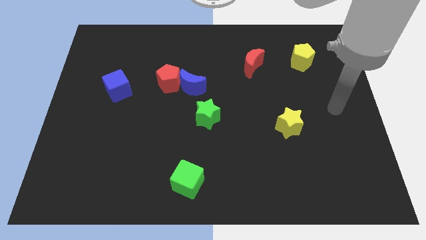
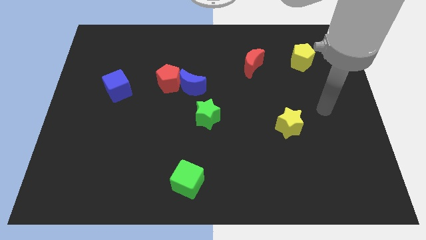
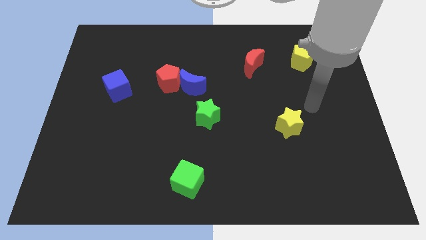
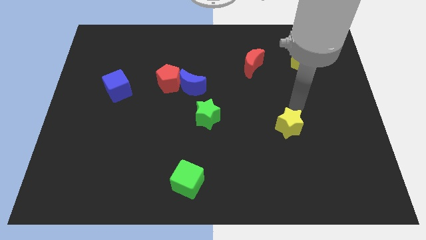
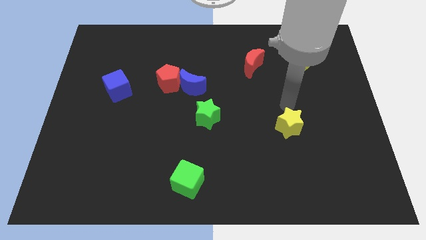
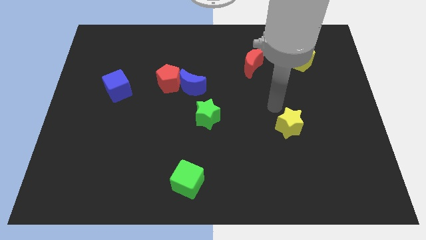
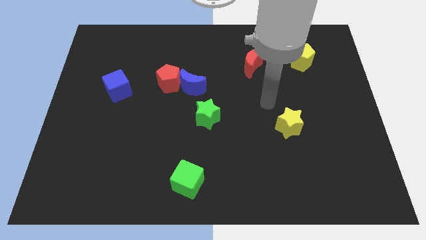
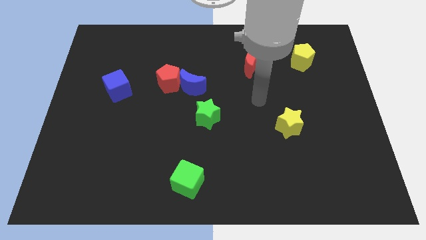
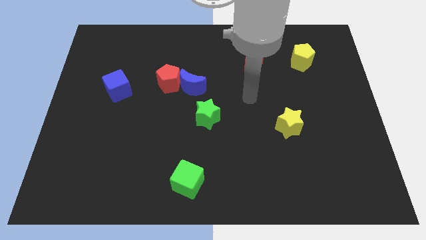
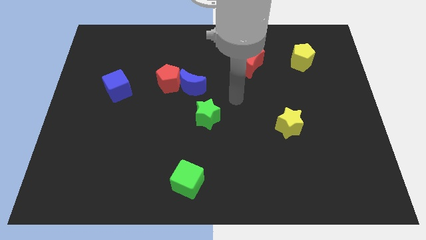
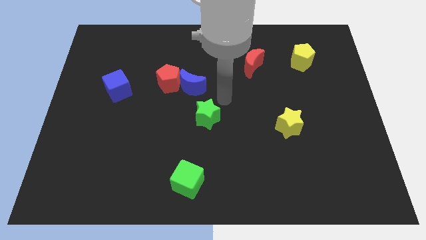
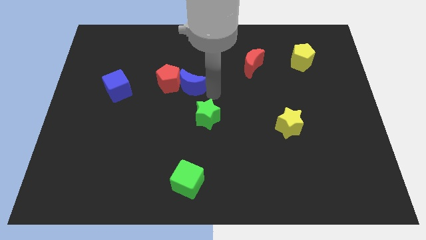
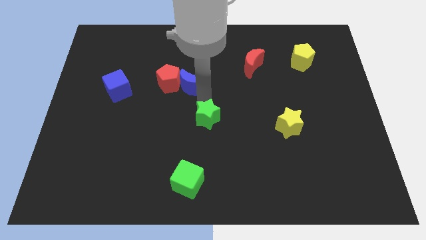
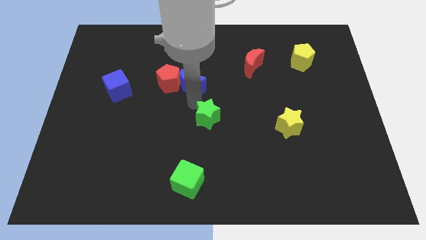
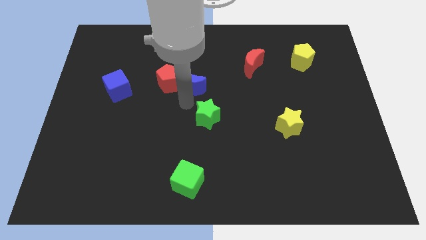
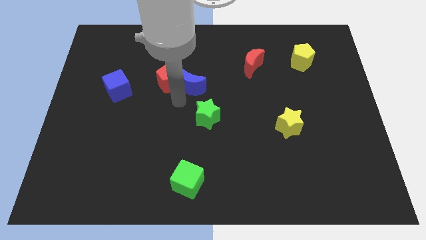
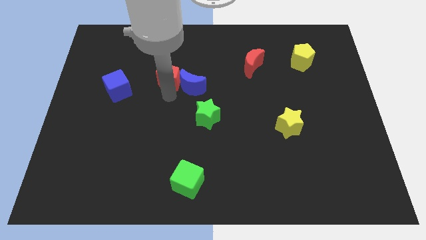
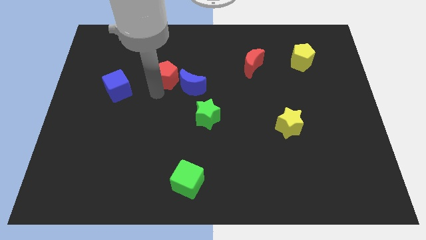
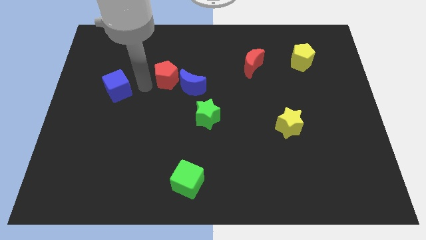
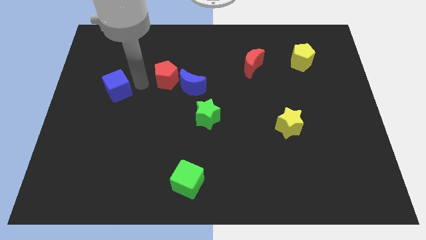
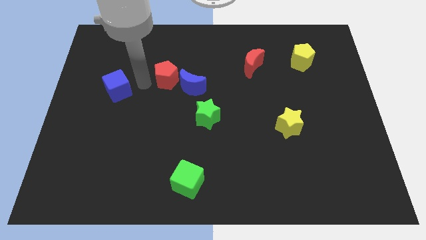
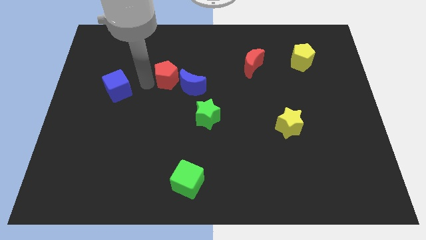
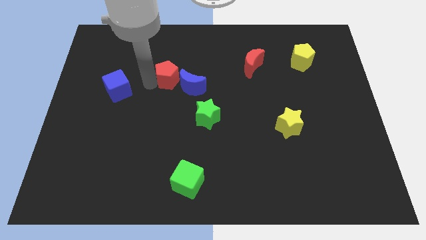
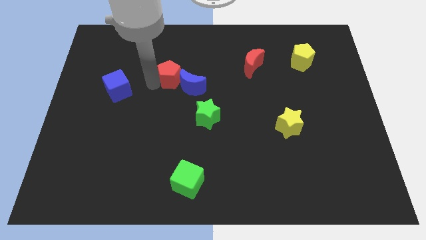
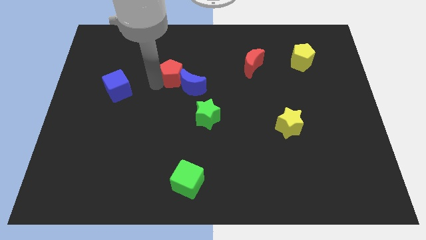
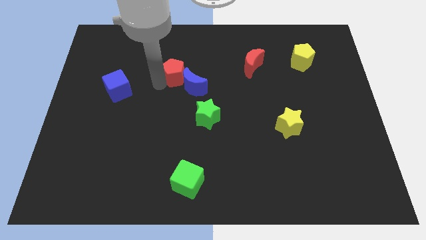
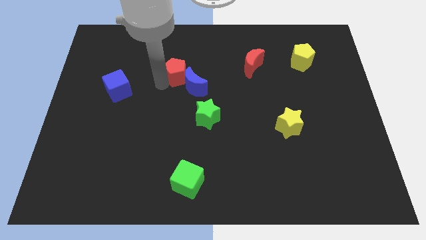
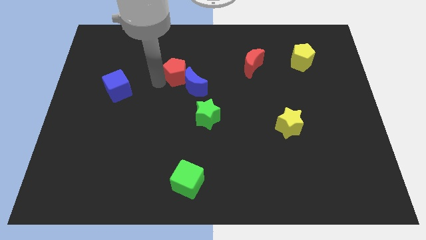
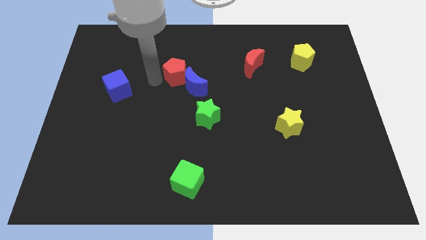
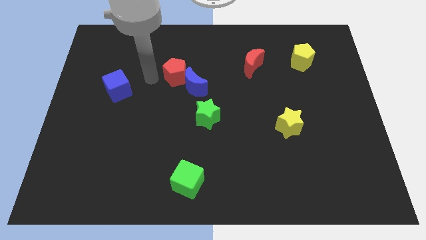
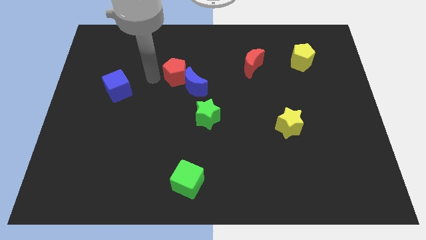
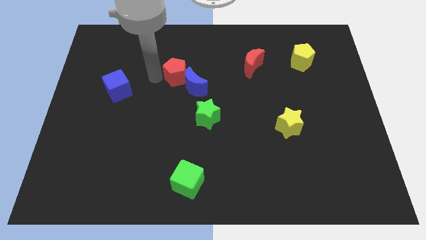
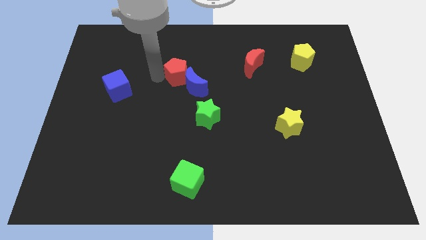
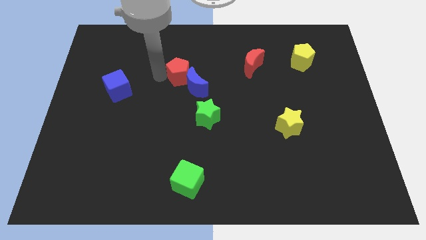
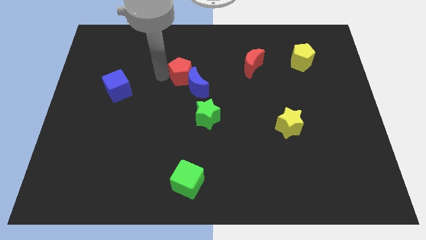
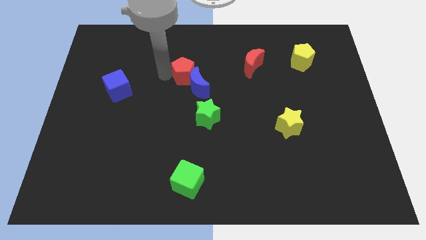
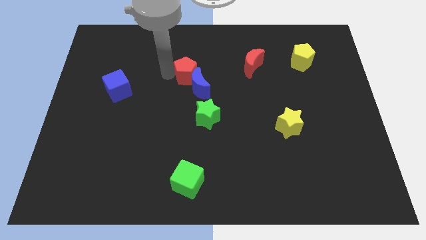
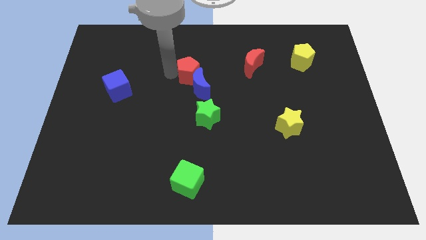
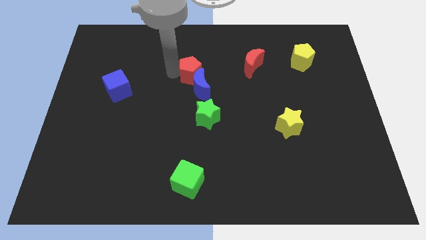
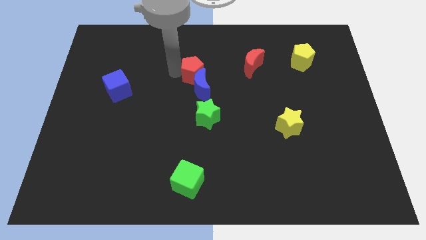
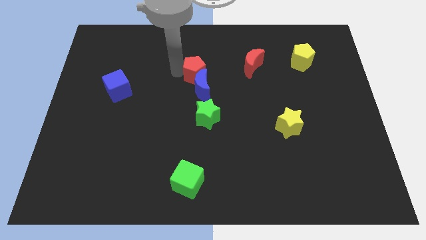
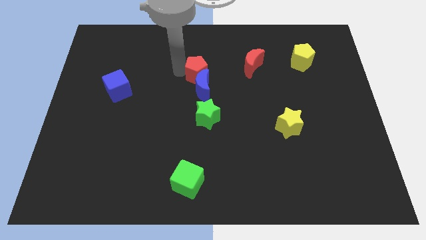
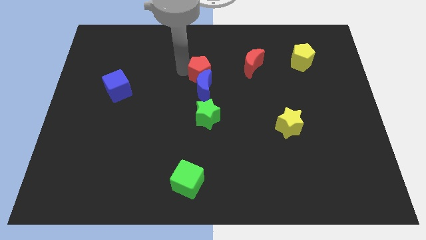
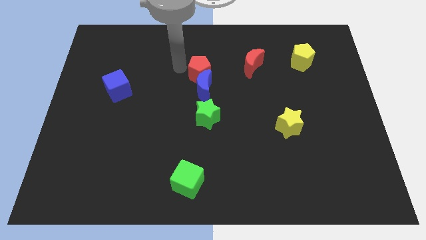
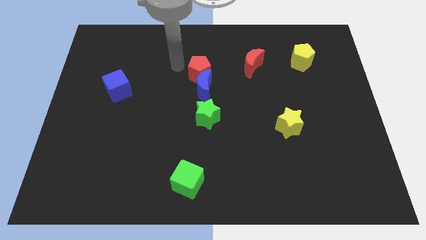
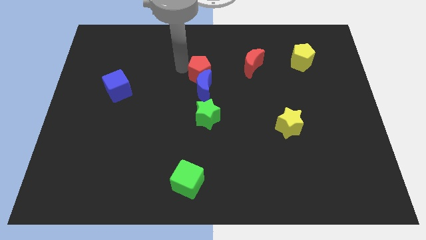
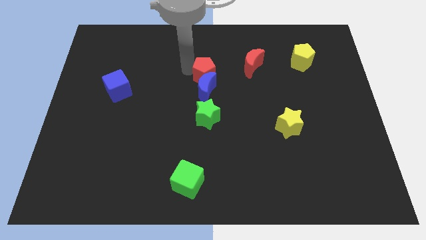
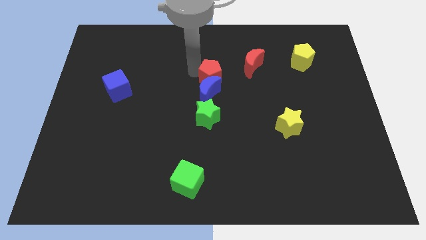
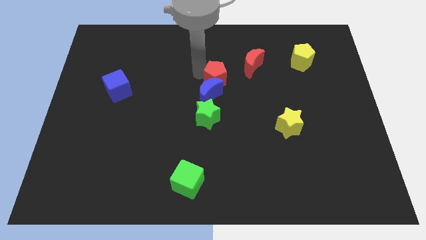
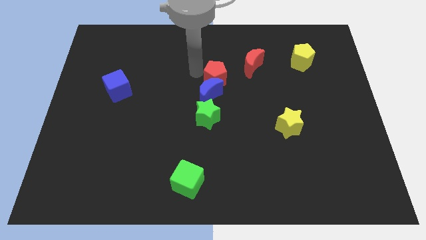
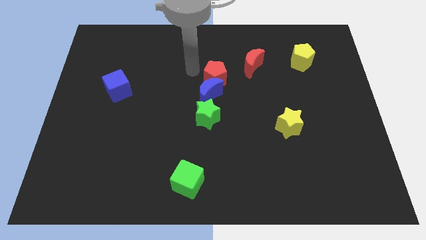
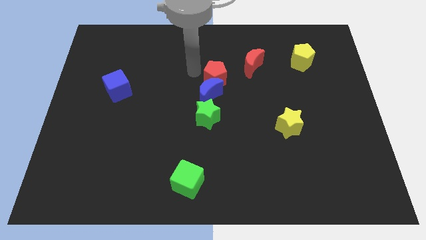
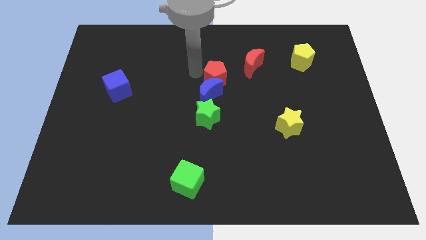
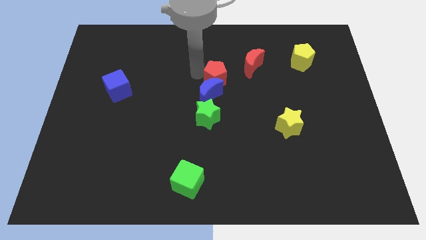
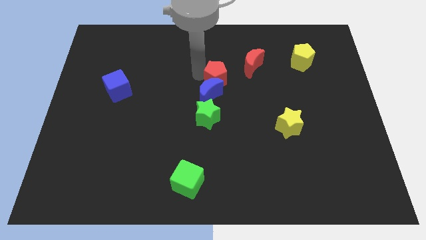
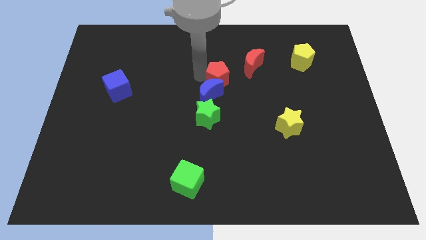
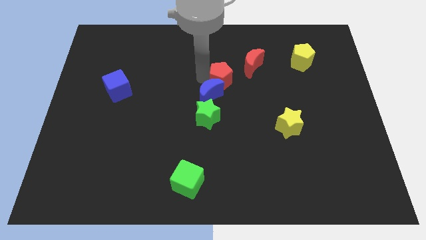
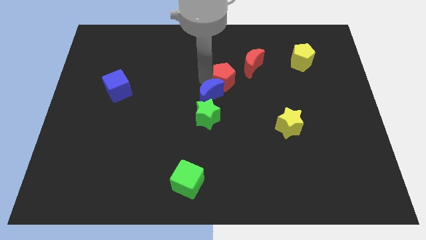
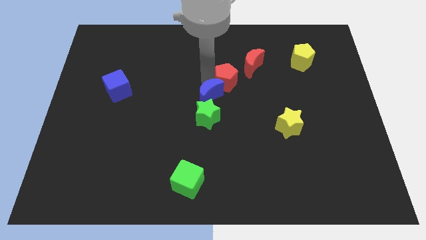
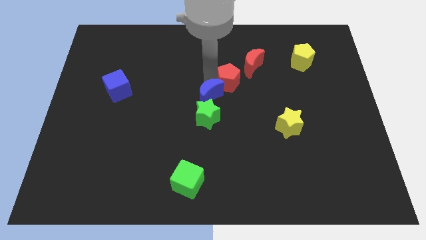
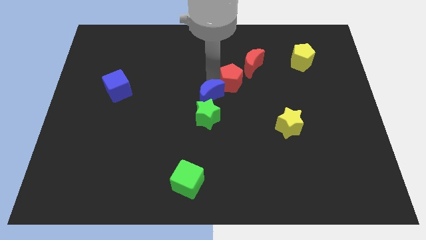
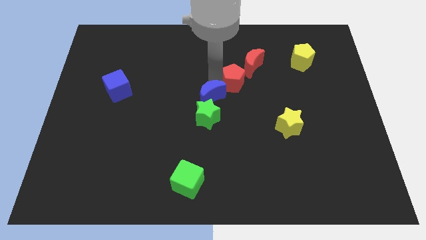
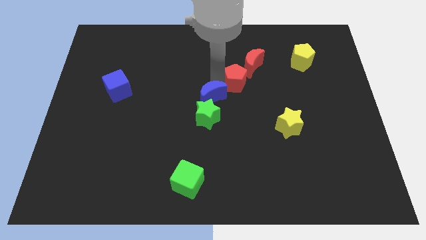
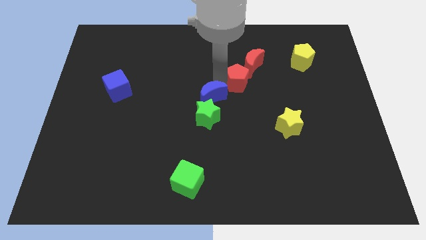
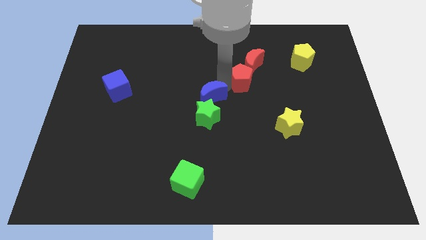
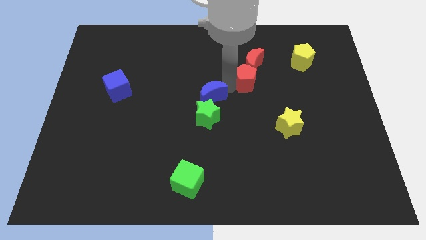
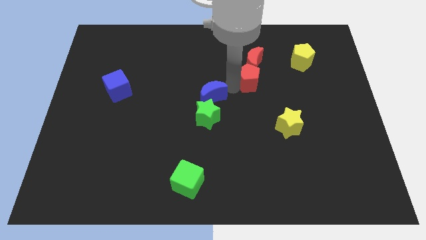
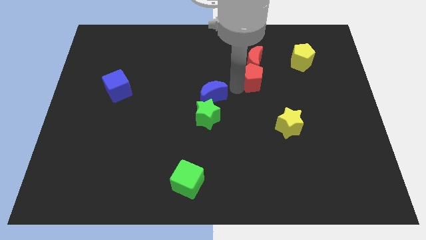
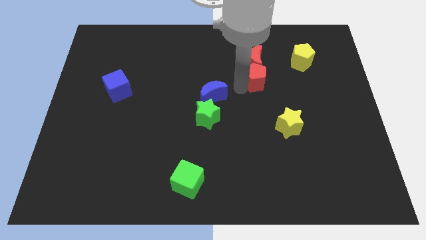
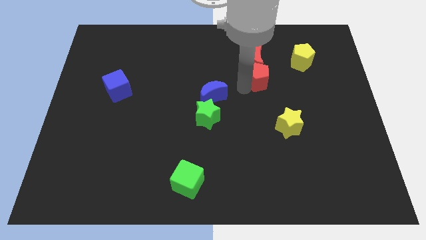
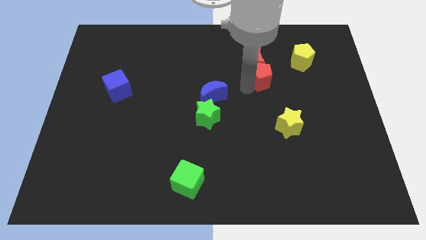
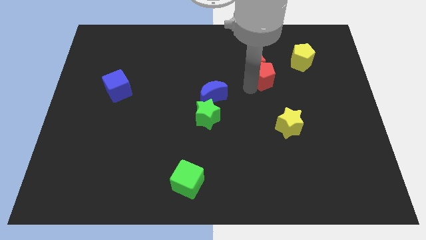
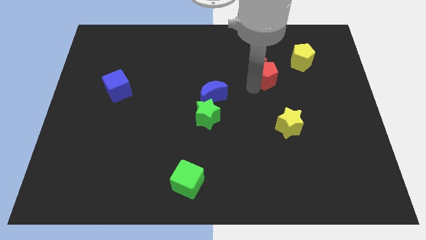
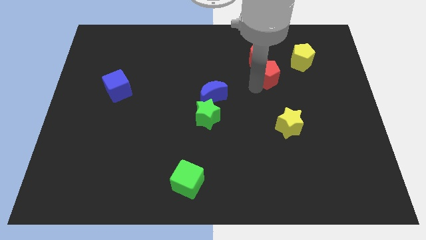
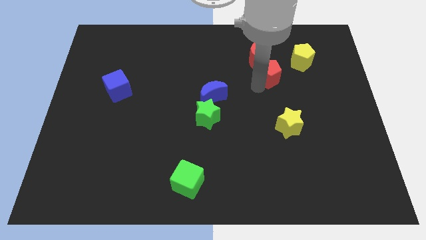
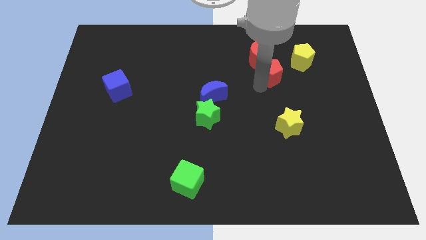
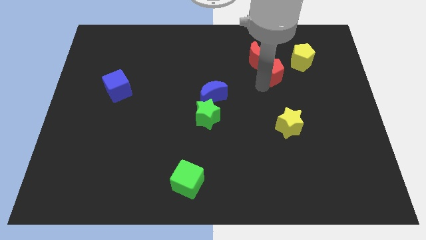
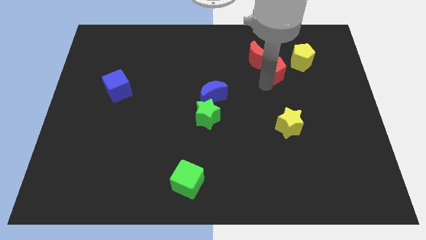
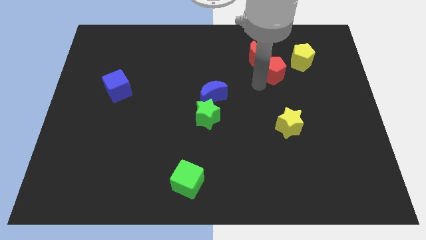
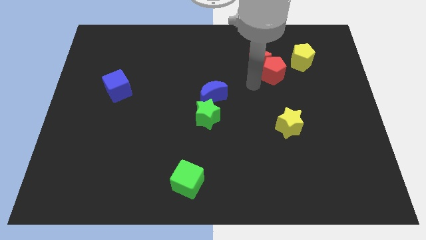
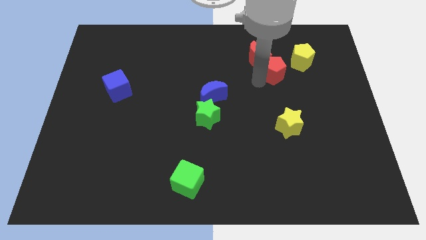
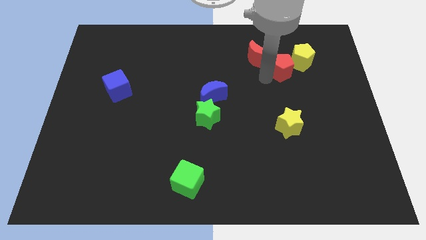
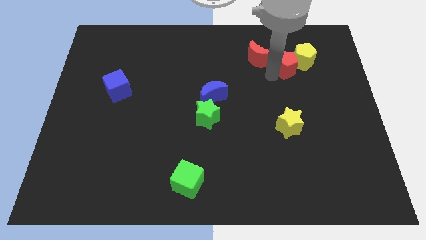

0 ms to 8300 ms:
put the red pentagon next to the yellow pentagon
